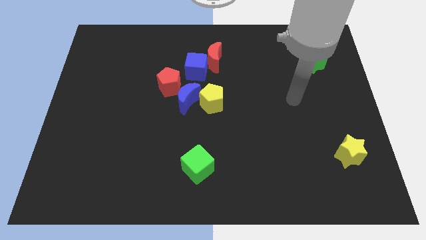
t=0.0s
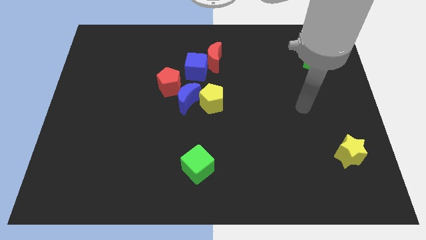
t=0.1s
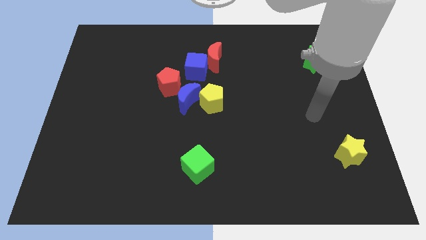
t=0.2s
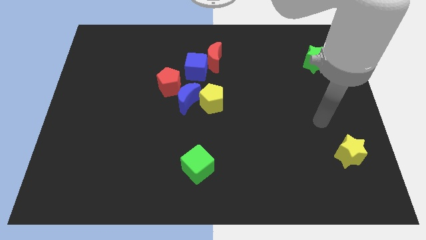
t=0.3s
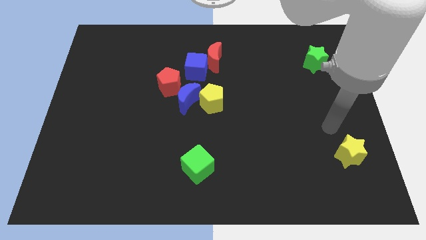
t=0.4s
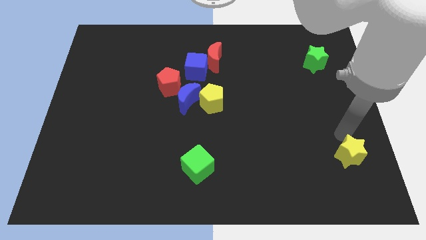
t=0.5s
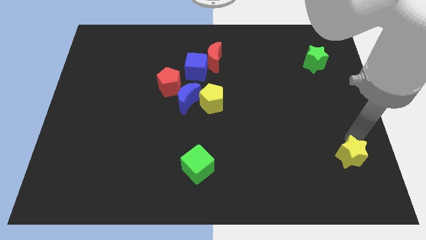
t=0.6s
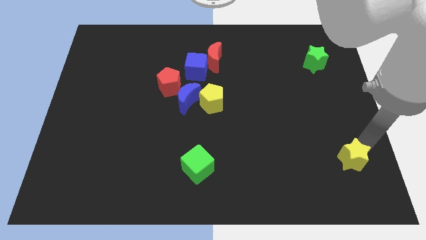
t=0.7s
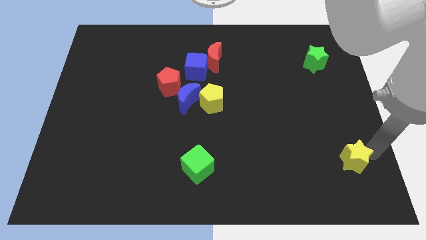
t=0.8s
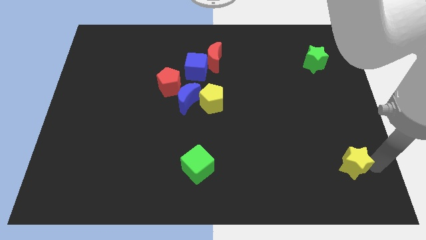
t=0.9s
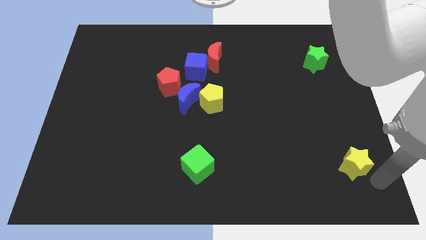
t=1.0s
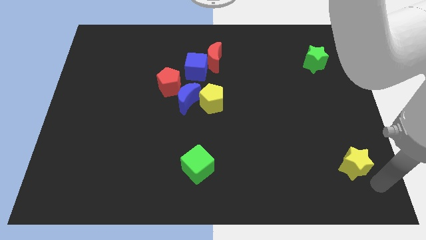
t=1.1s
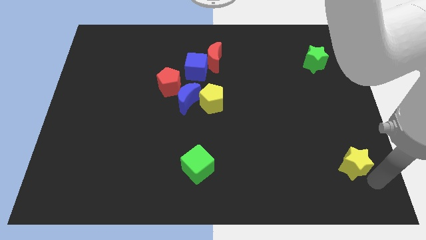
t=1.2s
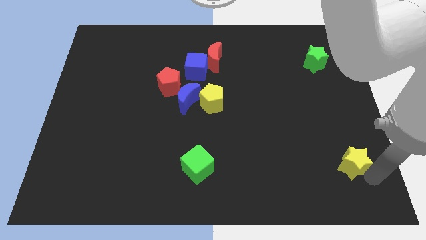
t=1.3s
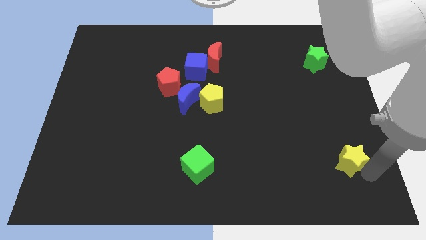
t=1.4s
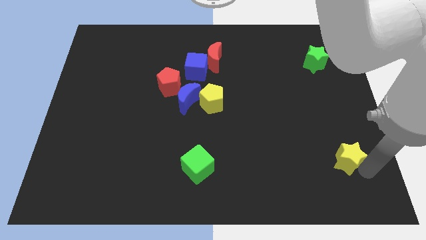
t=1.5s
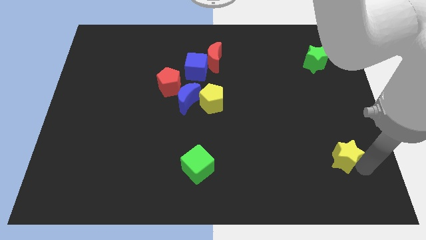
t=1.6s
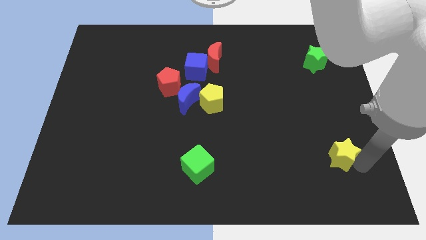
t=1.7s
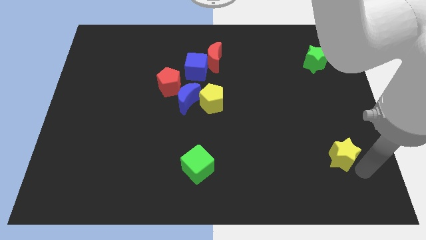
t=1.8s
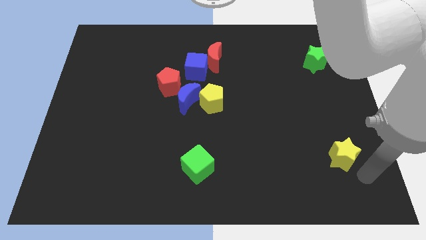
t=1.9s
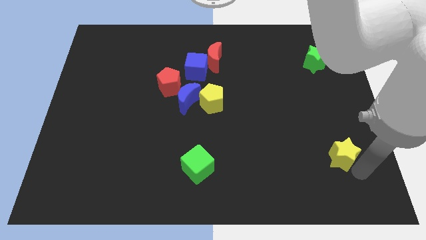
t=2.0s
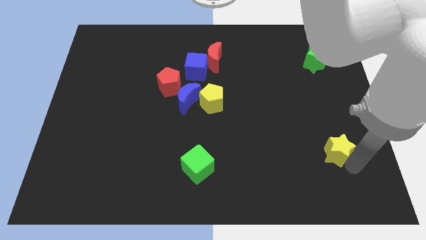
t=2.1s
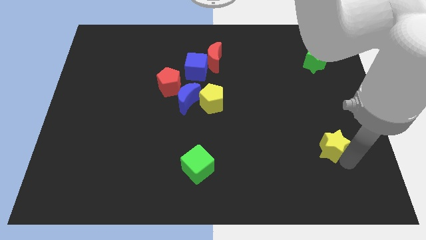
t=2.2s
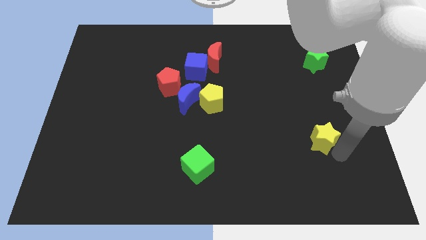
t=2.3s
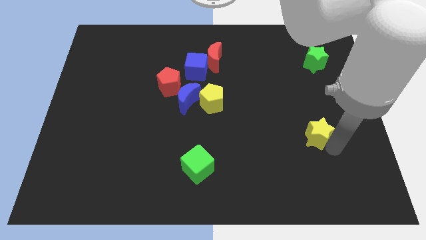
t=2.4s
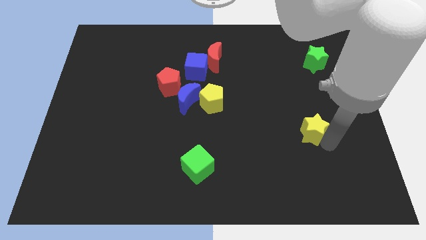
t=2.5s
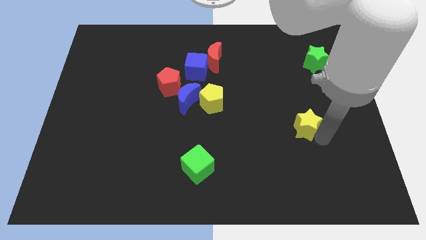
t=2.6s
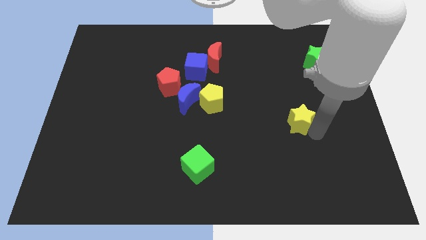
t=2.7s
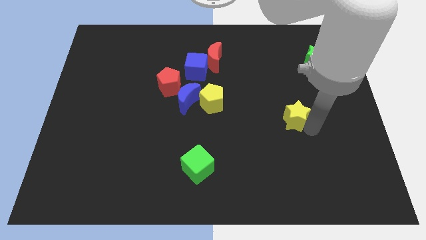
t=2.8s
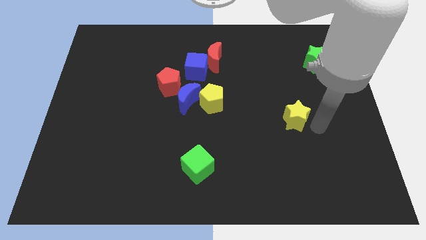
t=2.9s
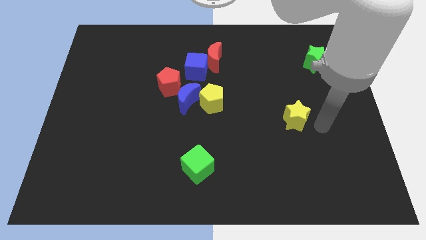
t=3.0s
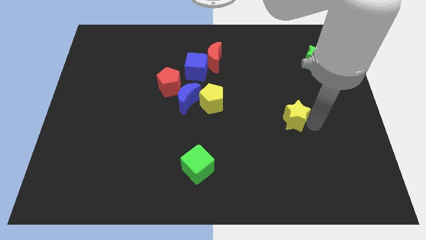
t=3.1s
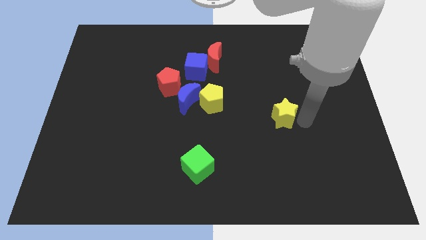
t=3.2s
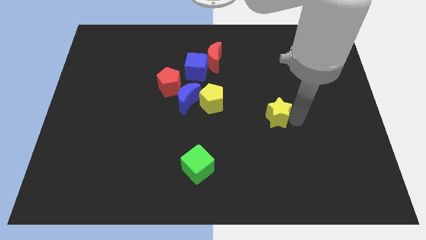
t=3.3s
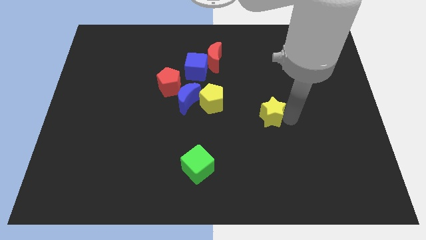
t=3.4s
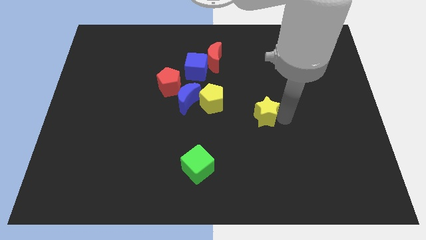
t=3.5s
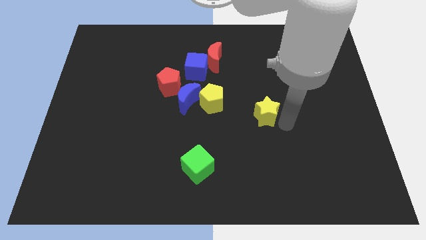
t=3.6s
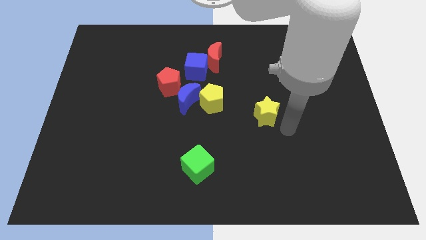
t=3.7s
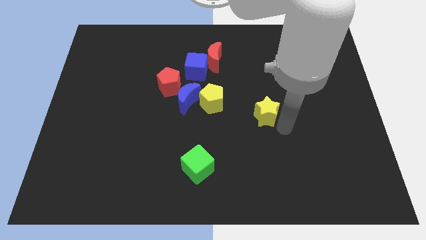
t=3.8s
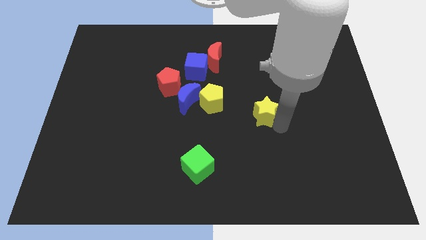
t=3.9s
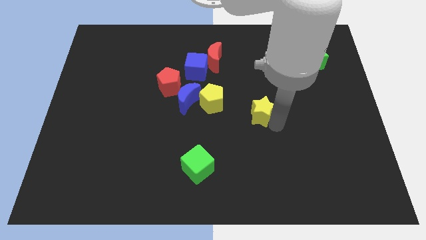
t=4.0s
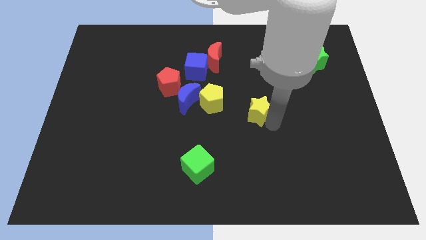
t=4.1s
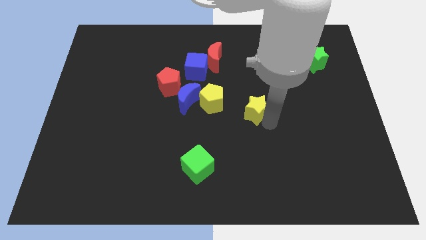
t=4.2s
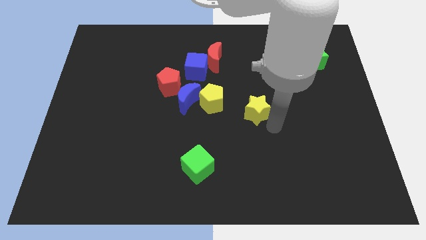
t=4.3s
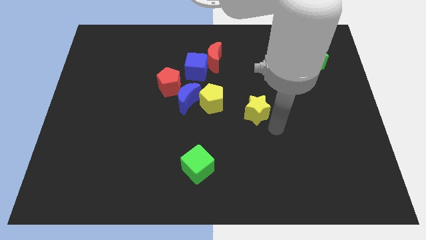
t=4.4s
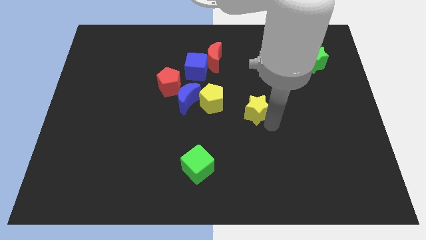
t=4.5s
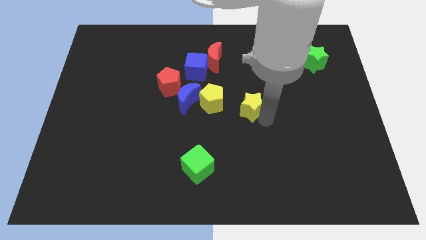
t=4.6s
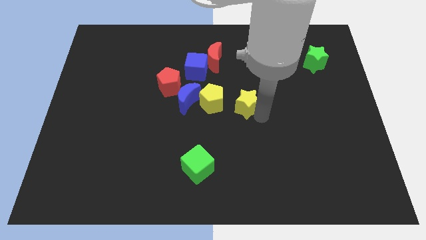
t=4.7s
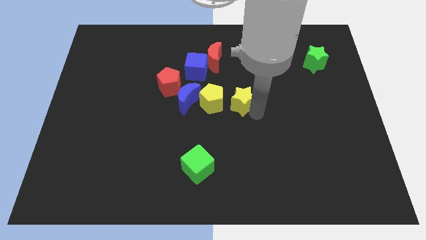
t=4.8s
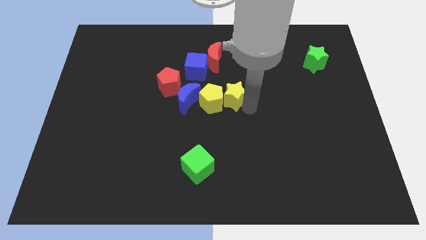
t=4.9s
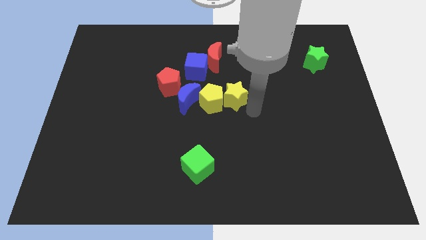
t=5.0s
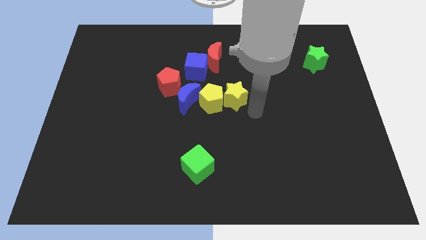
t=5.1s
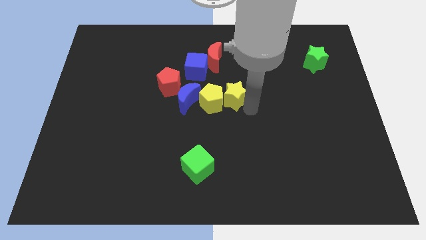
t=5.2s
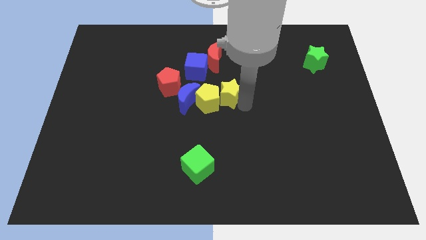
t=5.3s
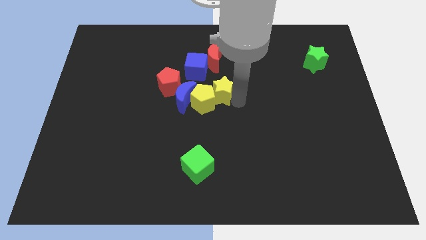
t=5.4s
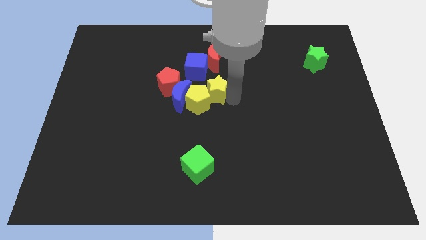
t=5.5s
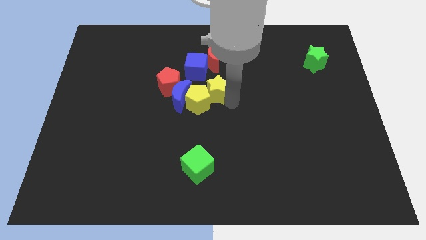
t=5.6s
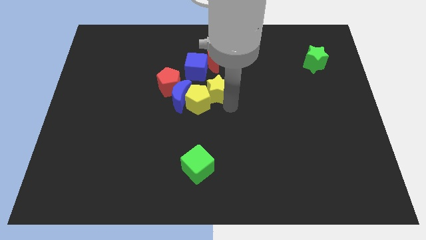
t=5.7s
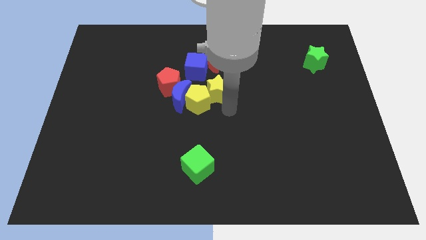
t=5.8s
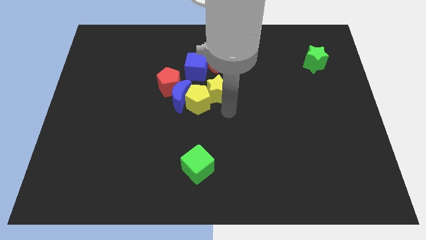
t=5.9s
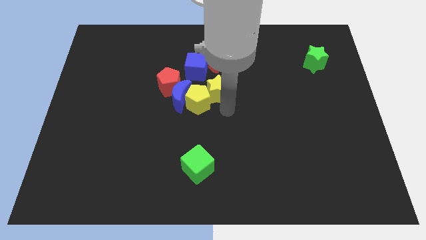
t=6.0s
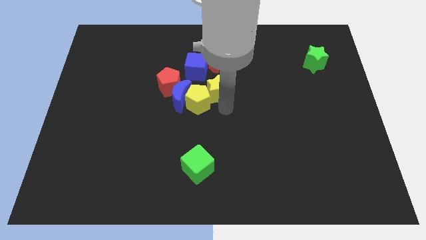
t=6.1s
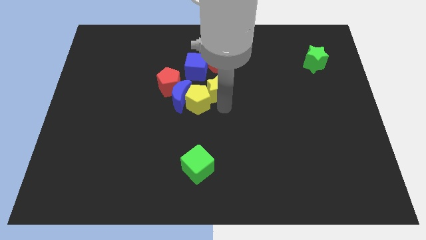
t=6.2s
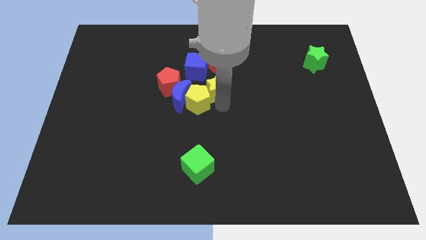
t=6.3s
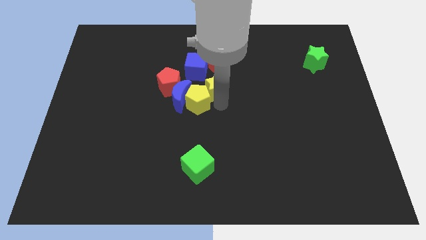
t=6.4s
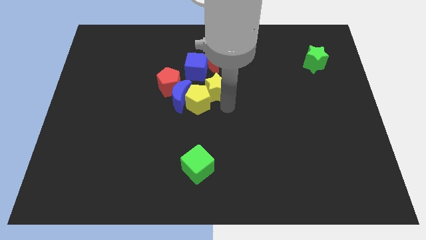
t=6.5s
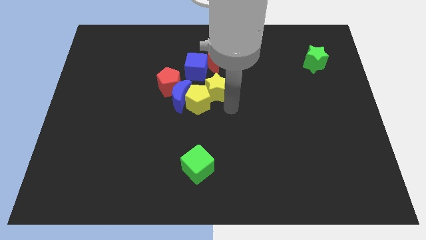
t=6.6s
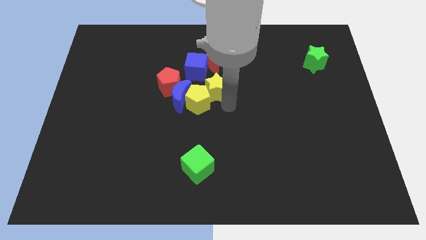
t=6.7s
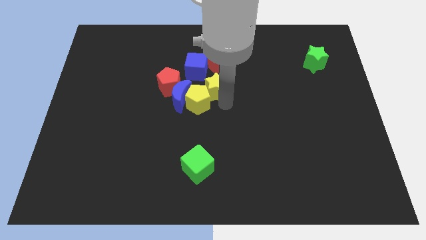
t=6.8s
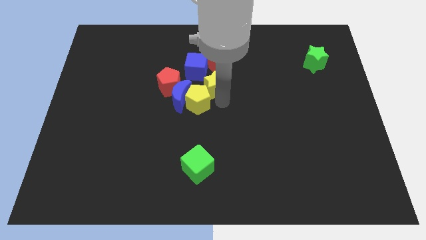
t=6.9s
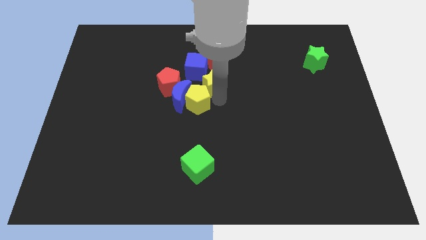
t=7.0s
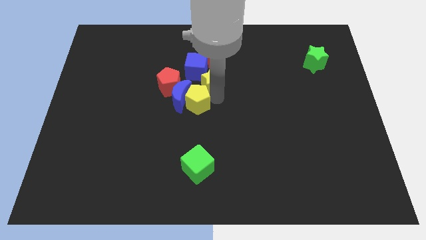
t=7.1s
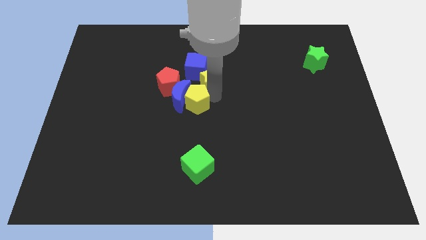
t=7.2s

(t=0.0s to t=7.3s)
move the yellow star next to the blue cube
